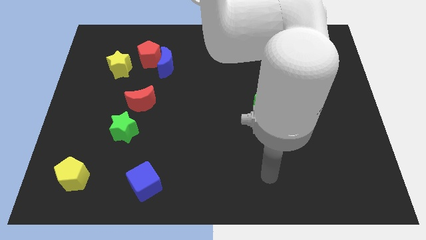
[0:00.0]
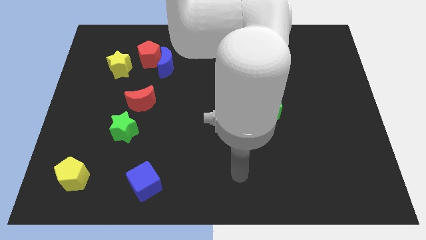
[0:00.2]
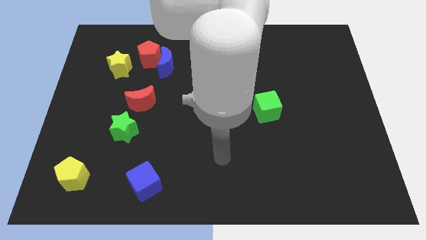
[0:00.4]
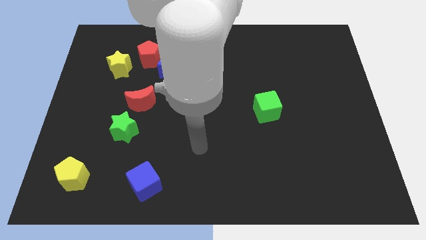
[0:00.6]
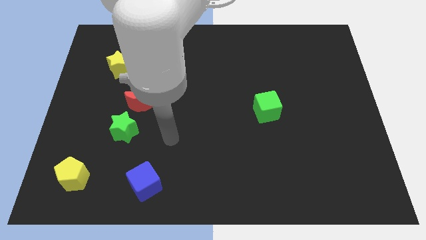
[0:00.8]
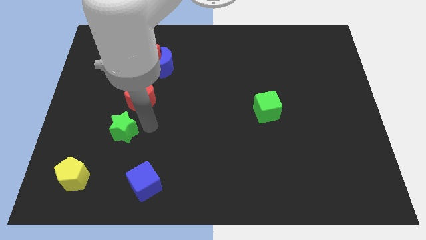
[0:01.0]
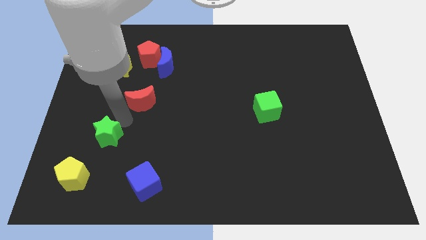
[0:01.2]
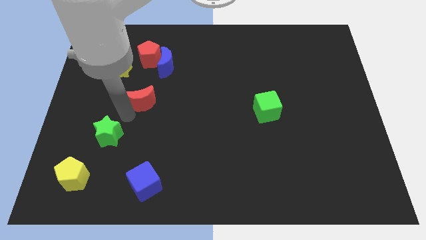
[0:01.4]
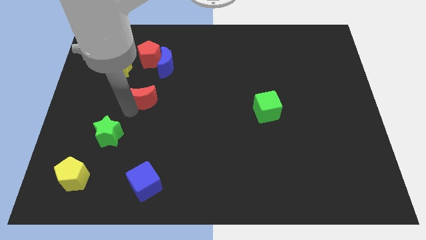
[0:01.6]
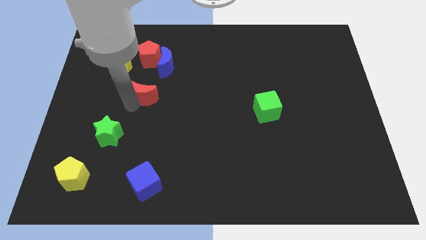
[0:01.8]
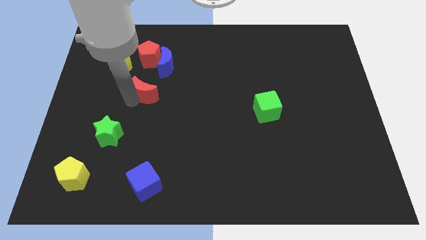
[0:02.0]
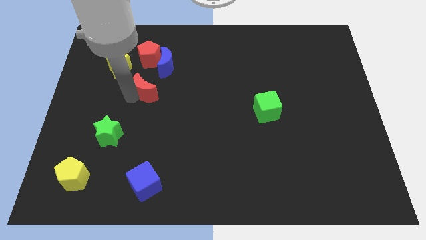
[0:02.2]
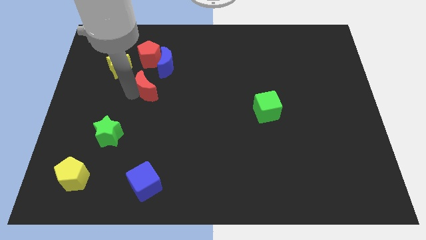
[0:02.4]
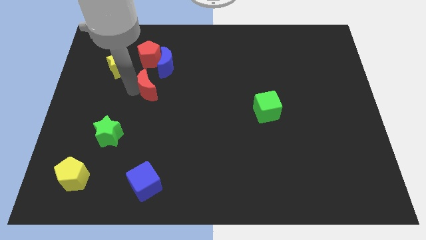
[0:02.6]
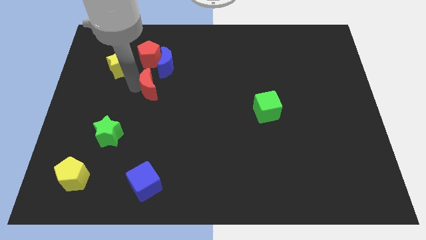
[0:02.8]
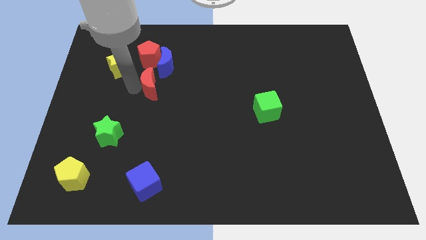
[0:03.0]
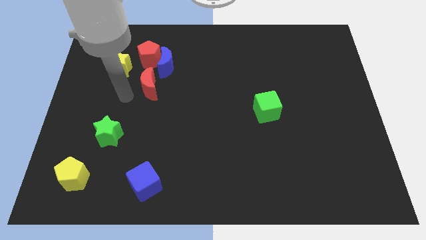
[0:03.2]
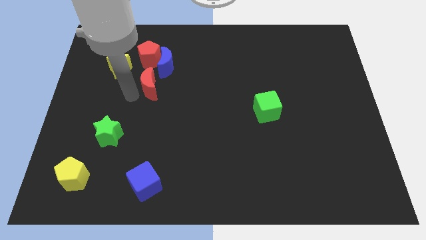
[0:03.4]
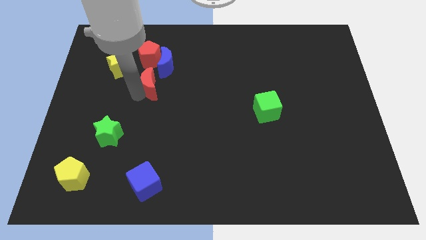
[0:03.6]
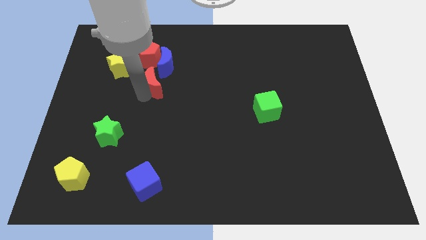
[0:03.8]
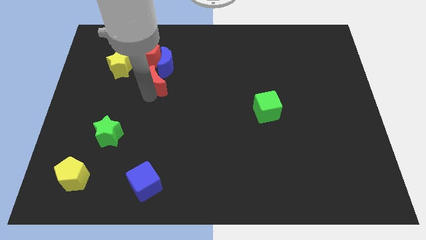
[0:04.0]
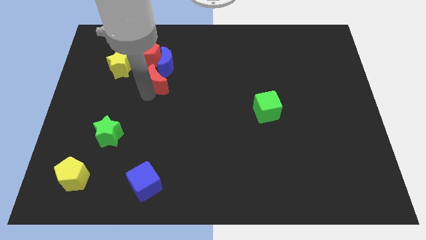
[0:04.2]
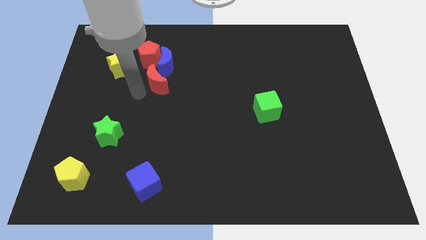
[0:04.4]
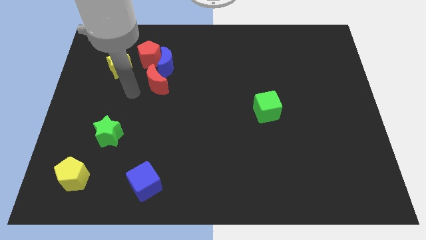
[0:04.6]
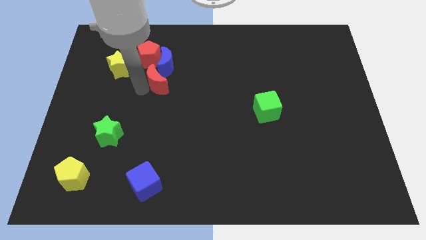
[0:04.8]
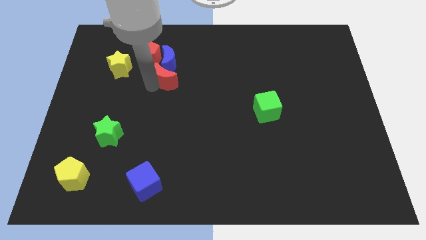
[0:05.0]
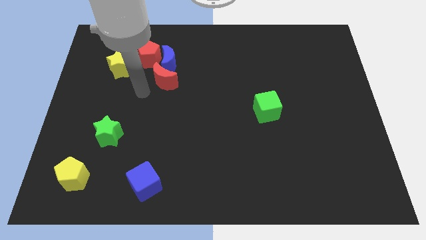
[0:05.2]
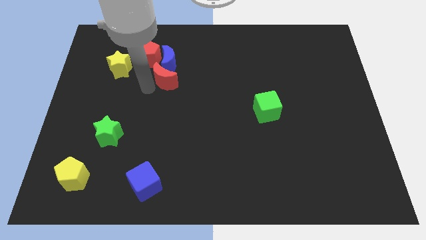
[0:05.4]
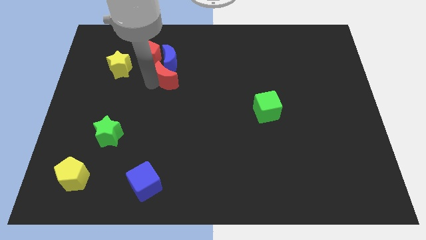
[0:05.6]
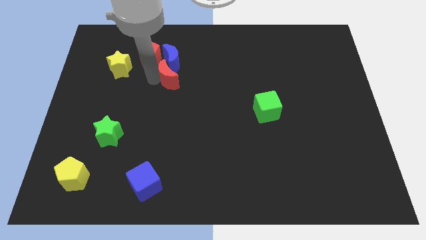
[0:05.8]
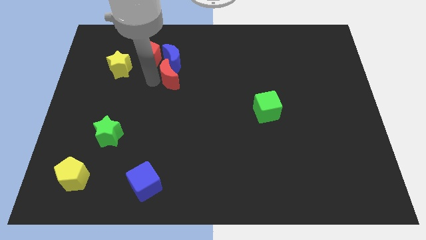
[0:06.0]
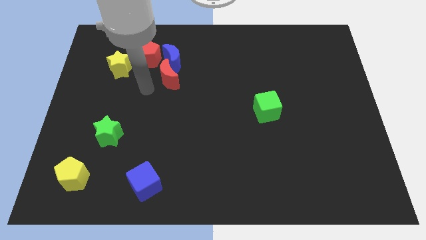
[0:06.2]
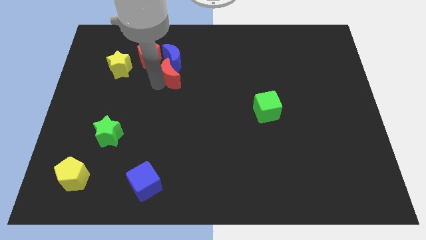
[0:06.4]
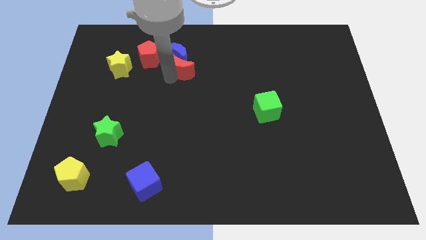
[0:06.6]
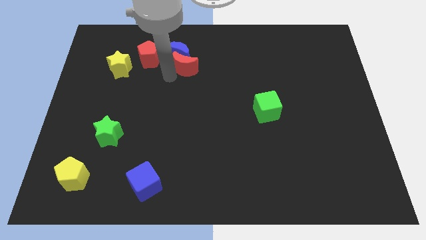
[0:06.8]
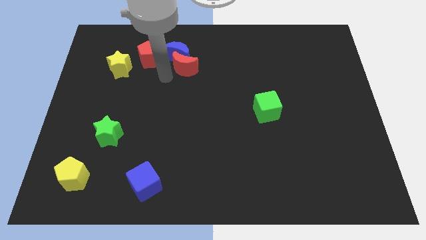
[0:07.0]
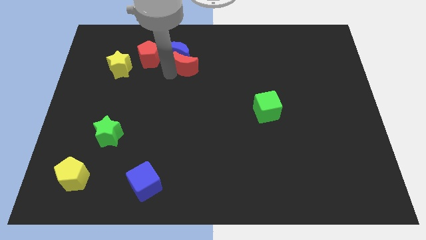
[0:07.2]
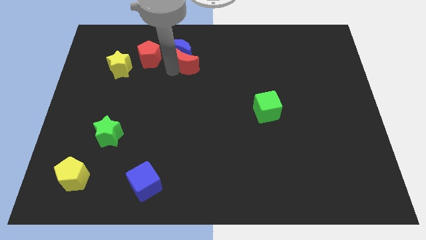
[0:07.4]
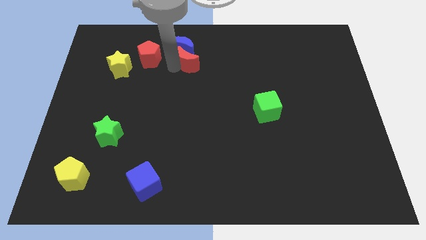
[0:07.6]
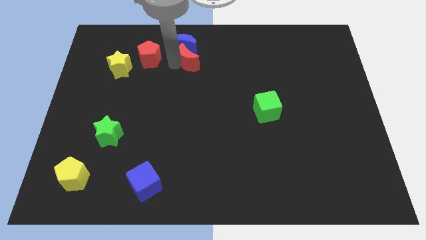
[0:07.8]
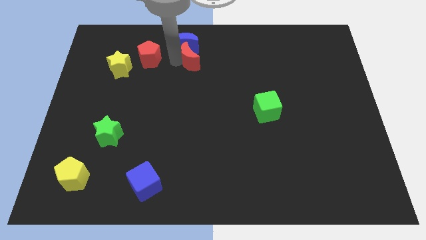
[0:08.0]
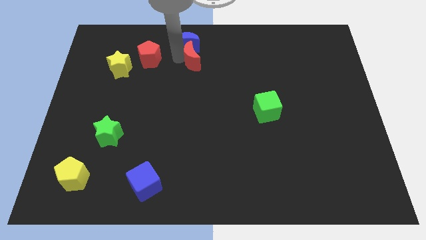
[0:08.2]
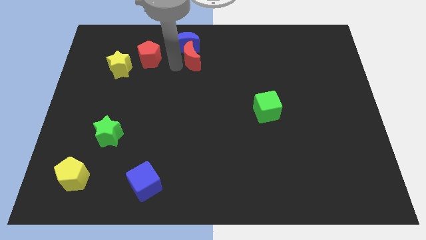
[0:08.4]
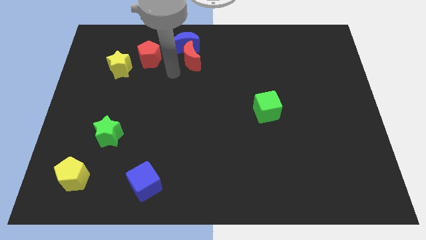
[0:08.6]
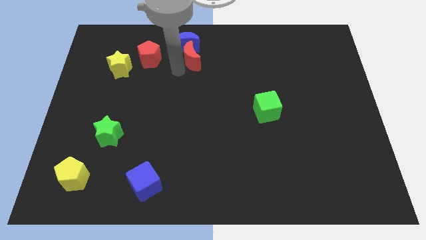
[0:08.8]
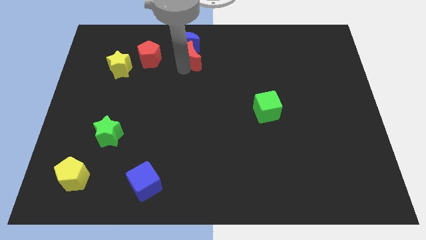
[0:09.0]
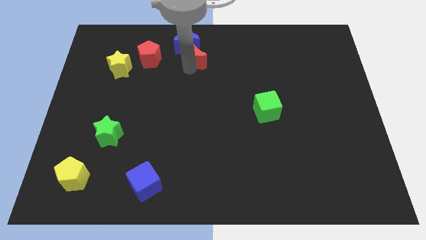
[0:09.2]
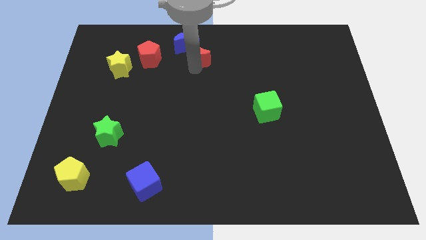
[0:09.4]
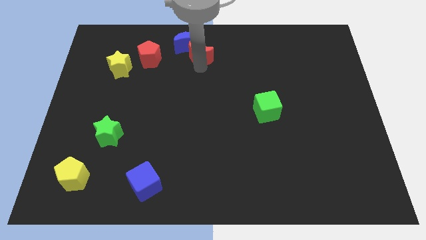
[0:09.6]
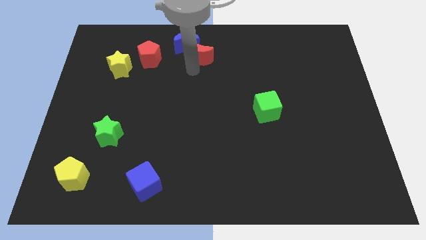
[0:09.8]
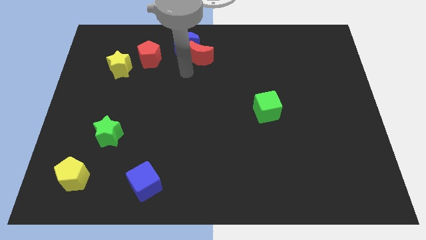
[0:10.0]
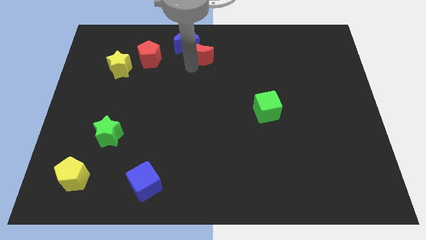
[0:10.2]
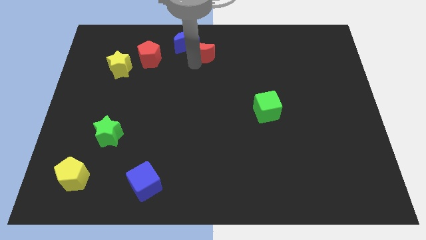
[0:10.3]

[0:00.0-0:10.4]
put the red moon to the top side

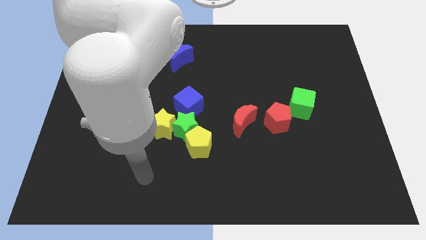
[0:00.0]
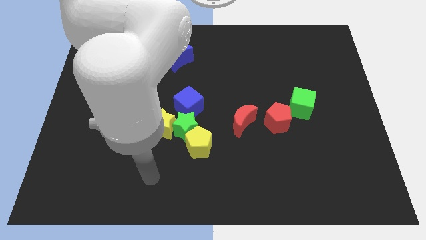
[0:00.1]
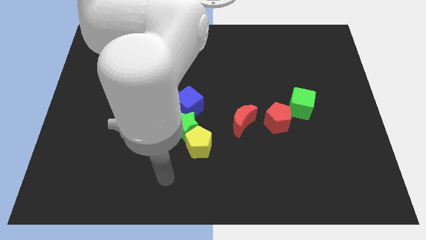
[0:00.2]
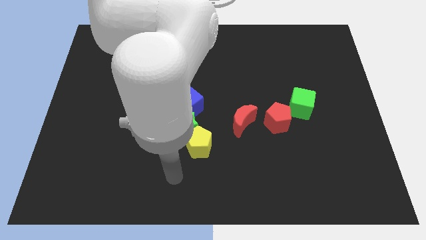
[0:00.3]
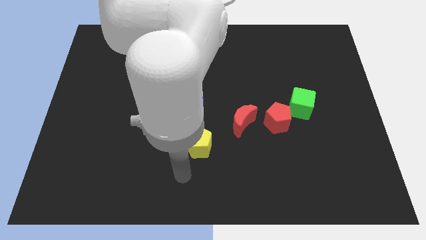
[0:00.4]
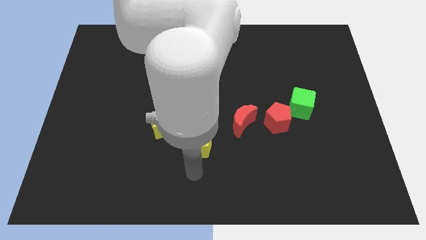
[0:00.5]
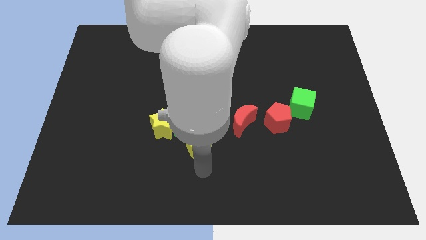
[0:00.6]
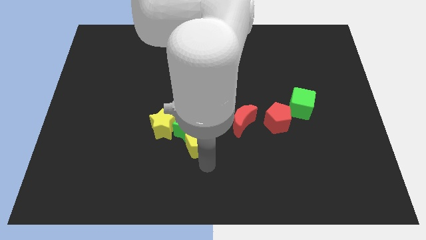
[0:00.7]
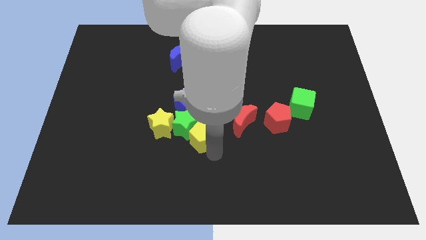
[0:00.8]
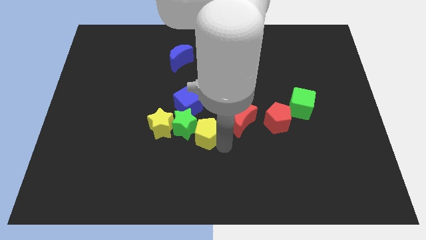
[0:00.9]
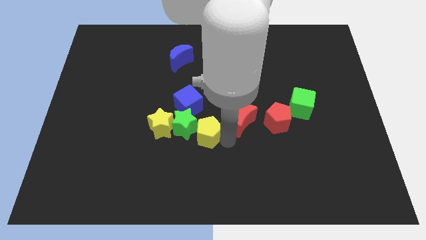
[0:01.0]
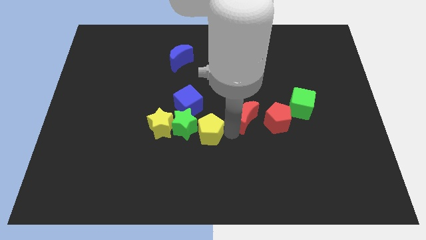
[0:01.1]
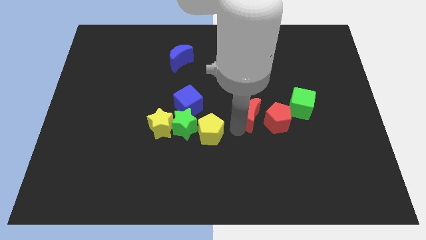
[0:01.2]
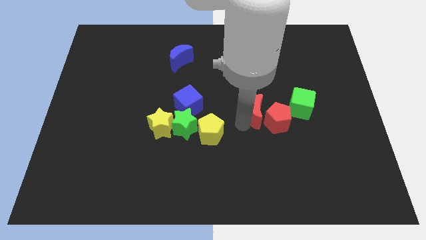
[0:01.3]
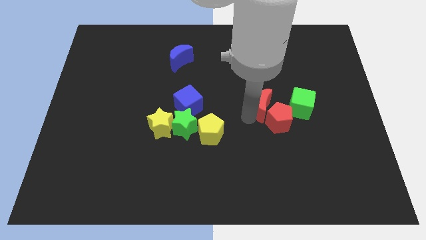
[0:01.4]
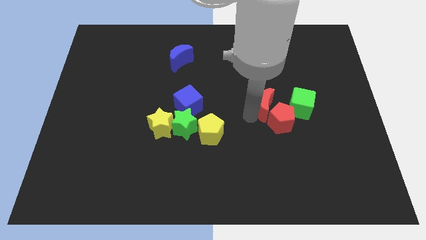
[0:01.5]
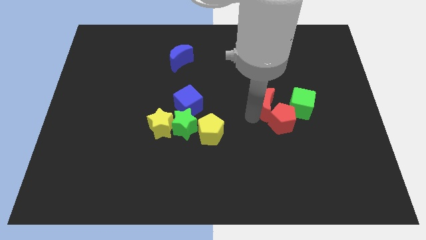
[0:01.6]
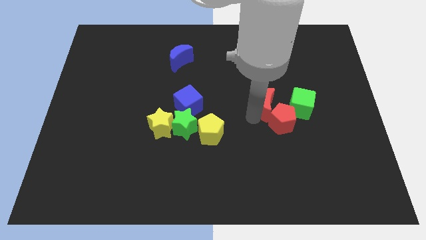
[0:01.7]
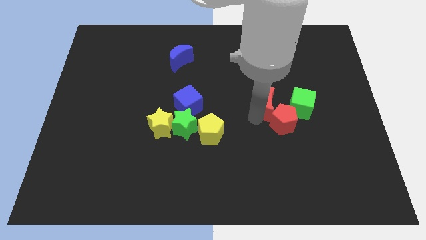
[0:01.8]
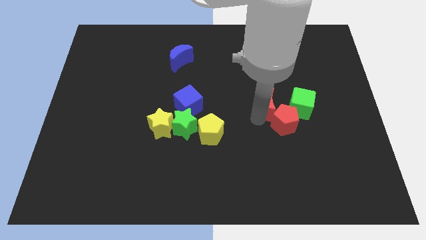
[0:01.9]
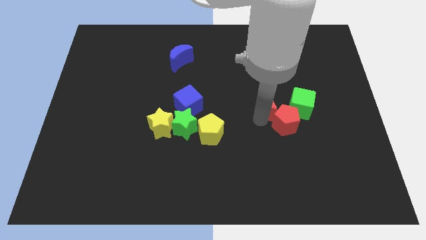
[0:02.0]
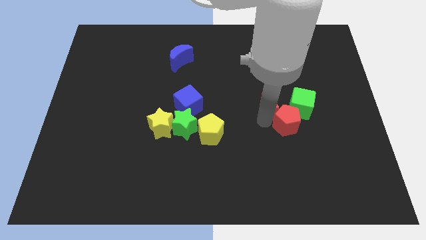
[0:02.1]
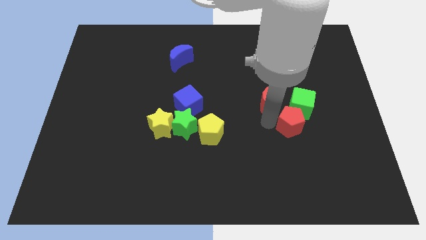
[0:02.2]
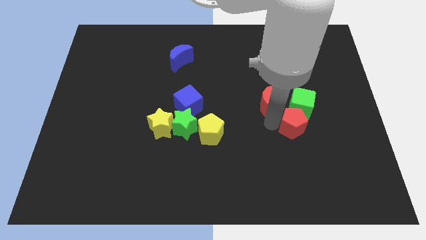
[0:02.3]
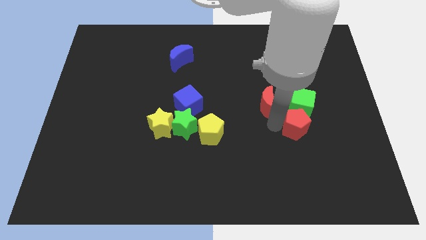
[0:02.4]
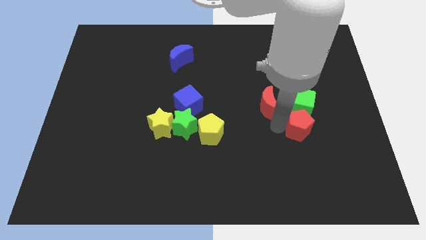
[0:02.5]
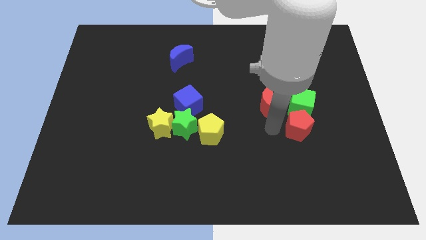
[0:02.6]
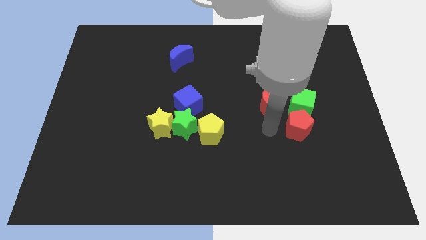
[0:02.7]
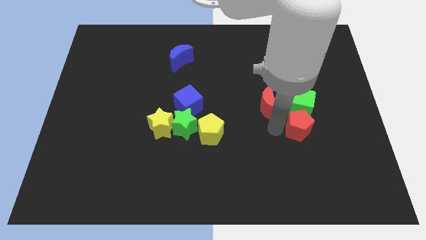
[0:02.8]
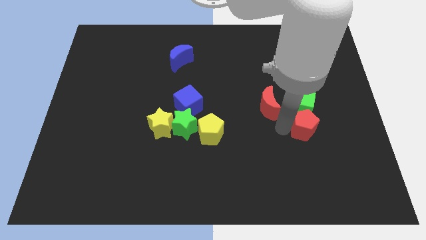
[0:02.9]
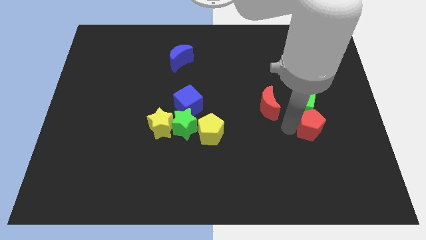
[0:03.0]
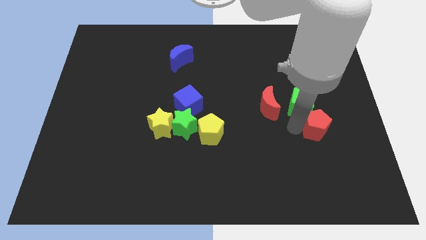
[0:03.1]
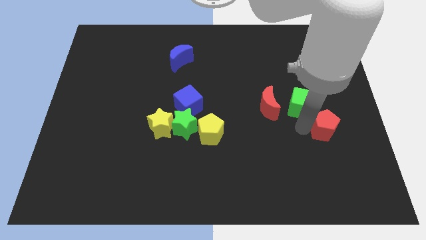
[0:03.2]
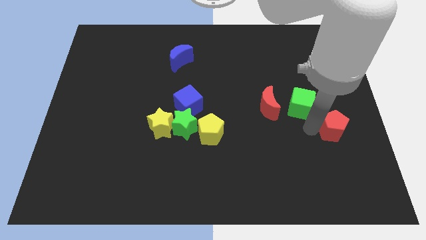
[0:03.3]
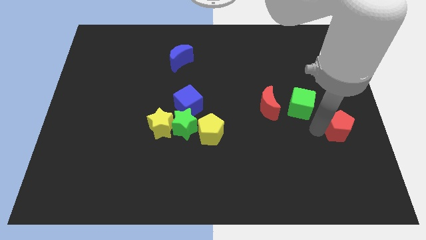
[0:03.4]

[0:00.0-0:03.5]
move the red pentagon to the right side of the board
